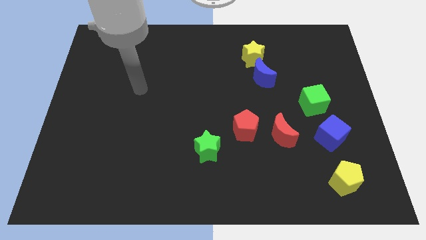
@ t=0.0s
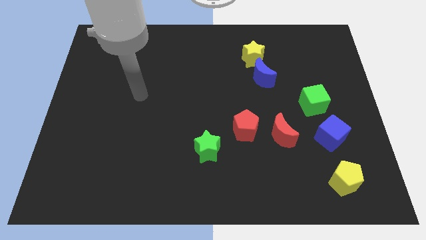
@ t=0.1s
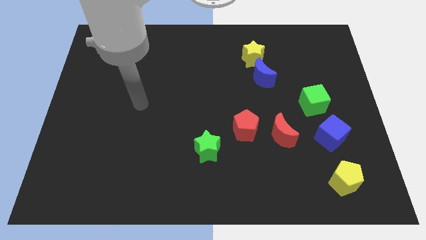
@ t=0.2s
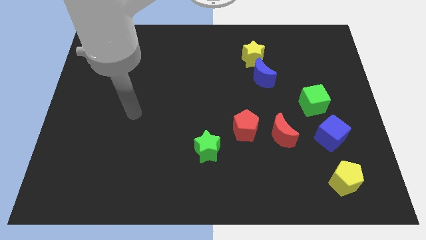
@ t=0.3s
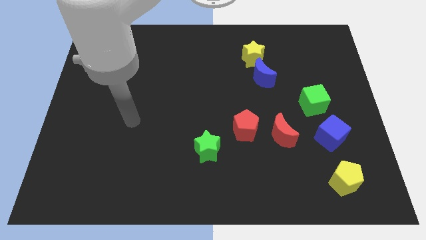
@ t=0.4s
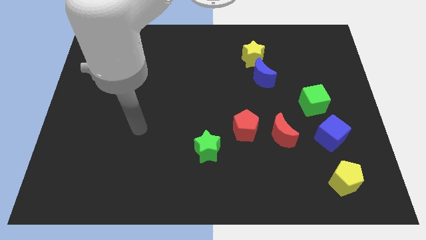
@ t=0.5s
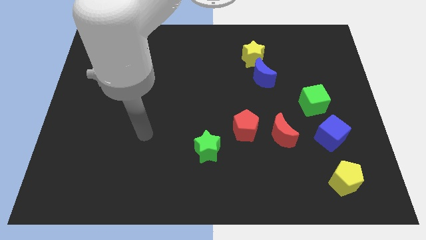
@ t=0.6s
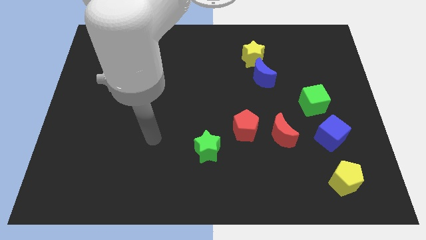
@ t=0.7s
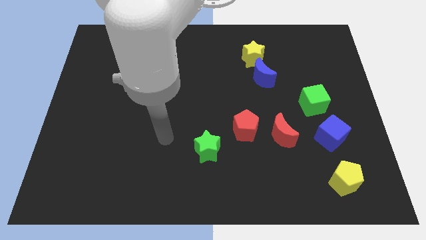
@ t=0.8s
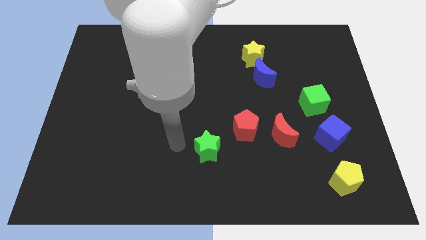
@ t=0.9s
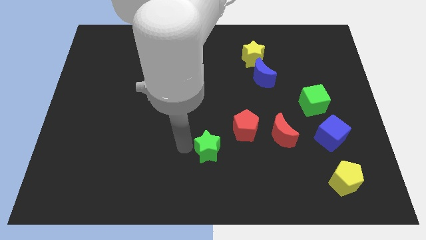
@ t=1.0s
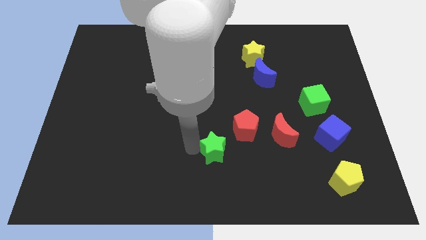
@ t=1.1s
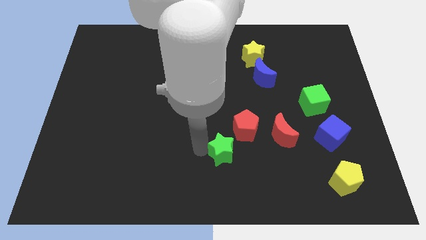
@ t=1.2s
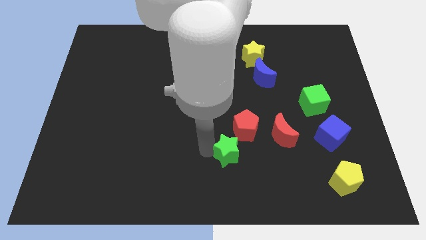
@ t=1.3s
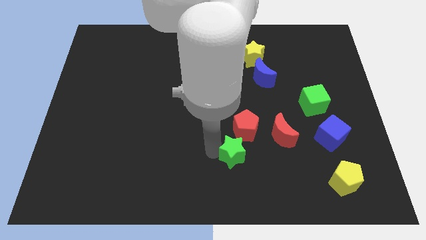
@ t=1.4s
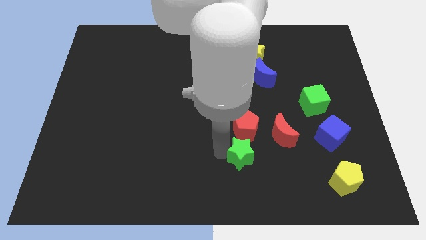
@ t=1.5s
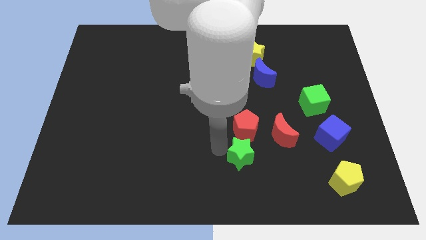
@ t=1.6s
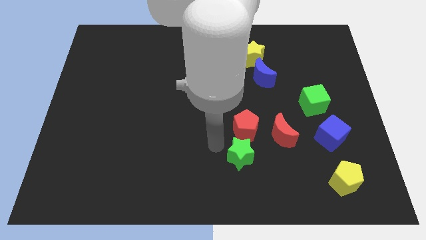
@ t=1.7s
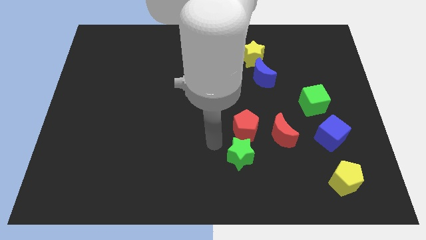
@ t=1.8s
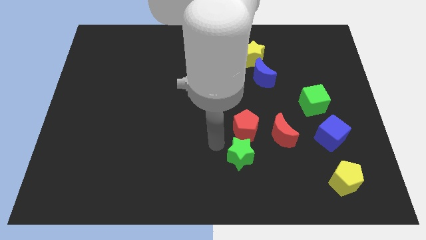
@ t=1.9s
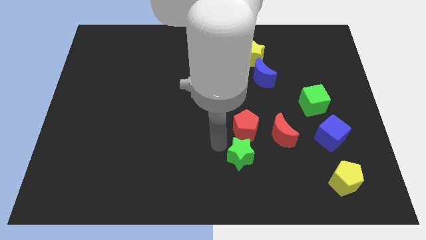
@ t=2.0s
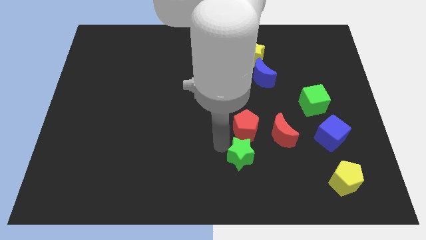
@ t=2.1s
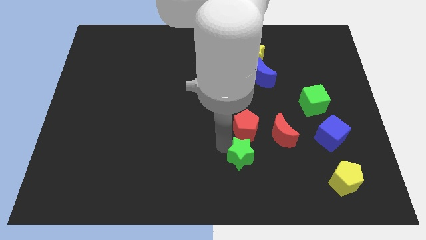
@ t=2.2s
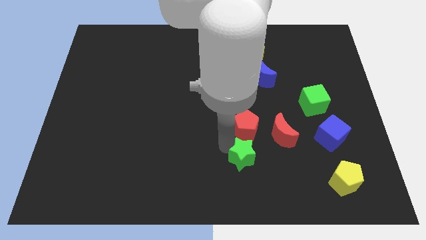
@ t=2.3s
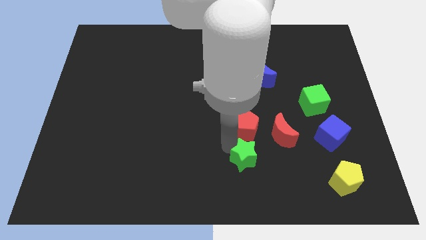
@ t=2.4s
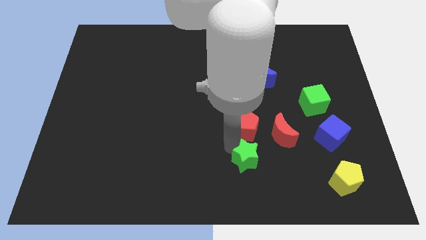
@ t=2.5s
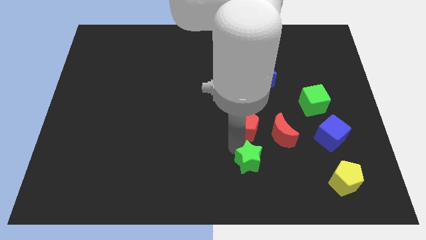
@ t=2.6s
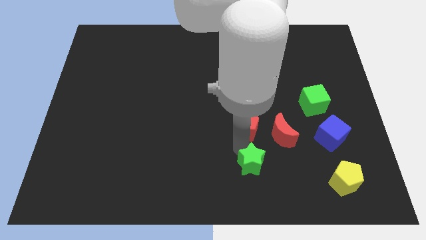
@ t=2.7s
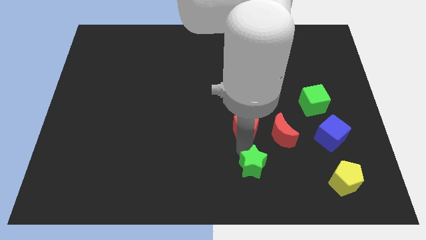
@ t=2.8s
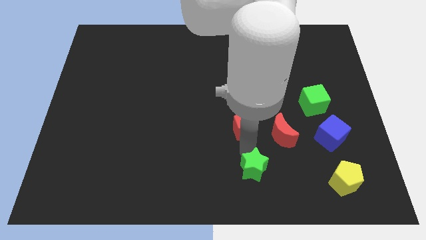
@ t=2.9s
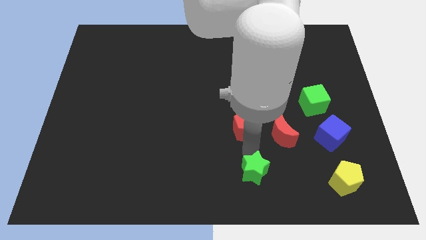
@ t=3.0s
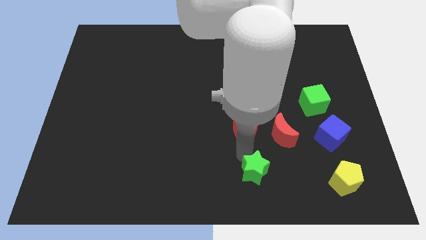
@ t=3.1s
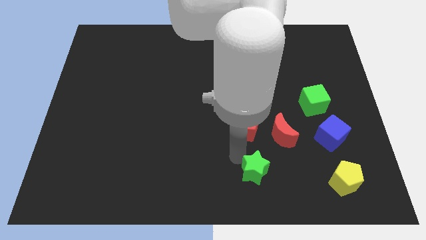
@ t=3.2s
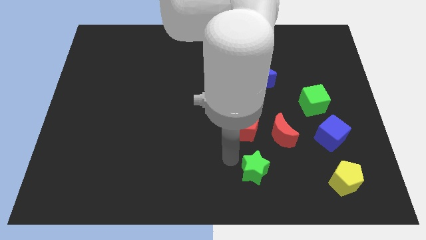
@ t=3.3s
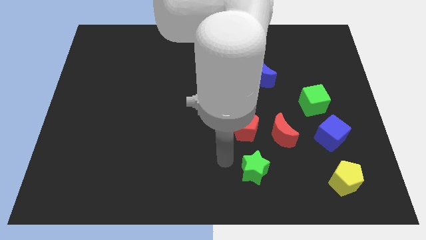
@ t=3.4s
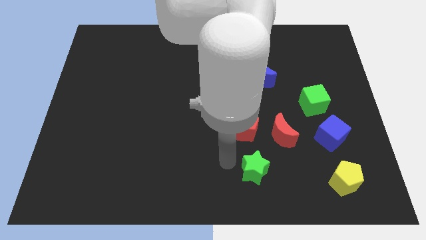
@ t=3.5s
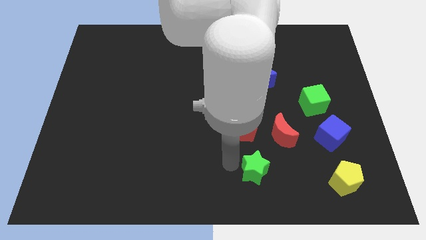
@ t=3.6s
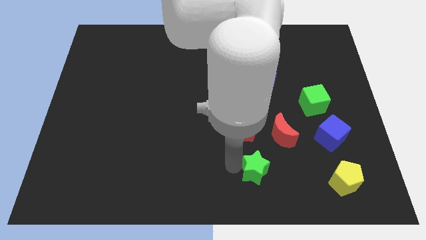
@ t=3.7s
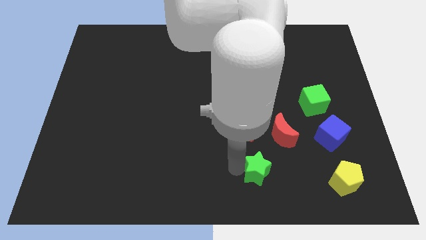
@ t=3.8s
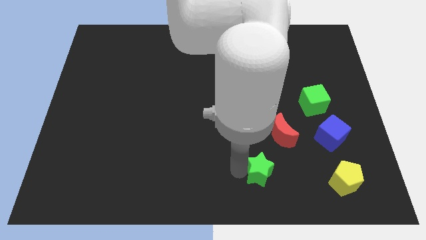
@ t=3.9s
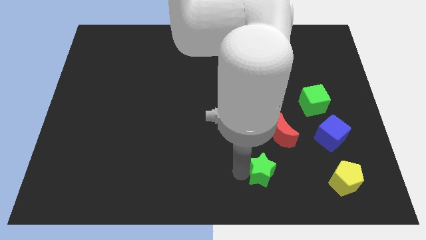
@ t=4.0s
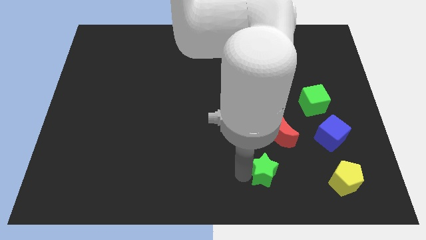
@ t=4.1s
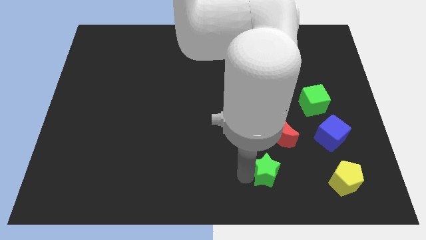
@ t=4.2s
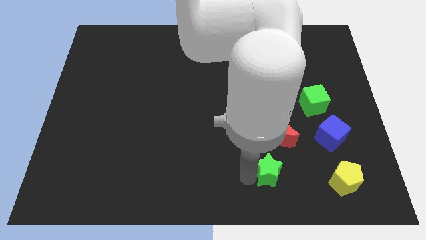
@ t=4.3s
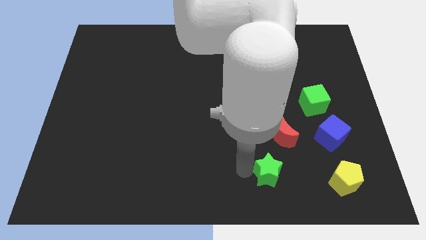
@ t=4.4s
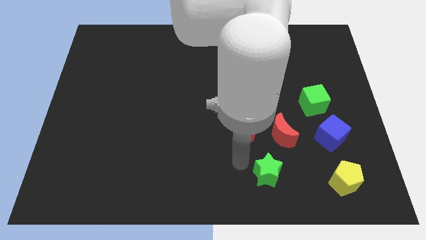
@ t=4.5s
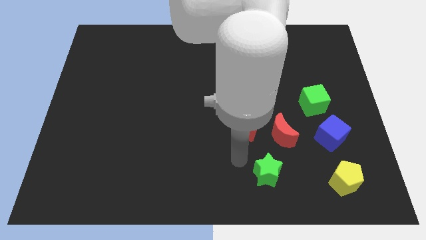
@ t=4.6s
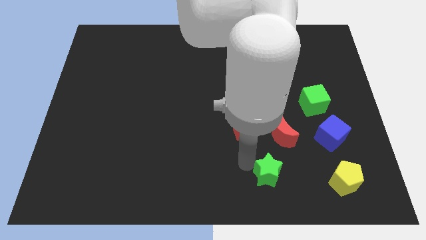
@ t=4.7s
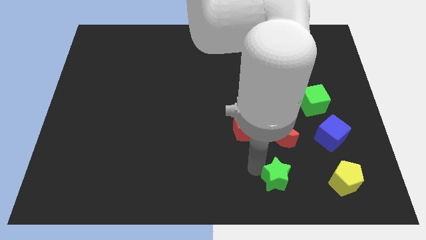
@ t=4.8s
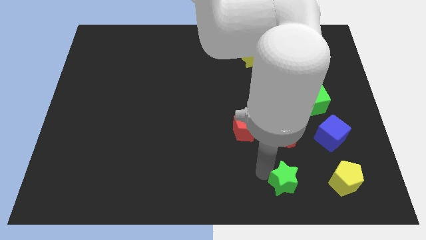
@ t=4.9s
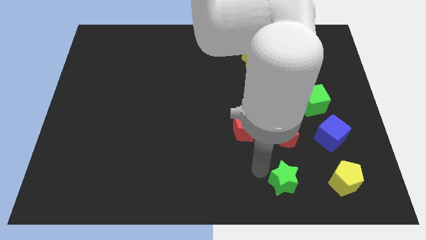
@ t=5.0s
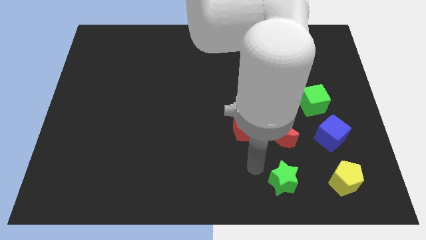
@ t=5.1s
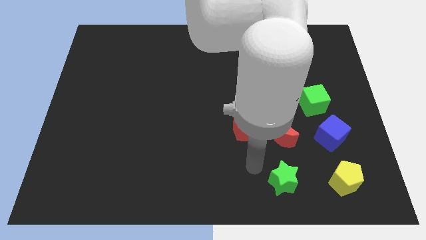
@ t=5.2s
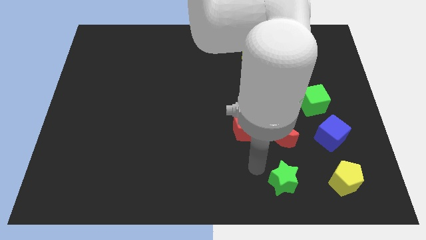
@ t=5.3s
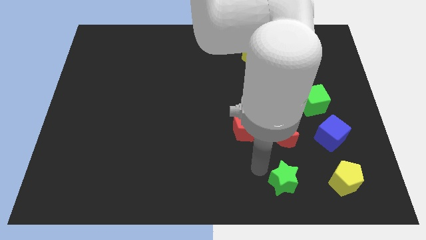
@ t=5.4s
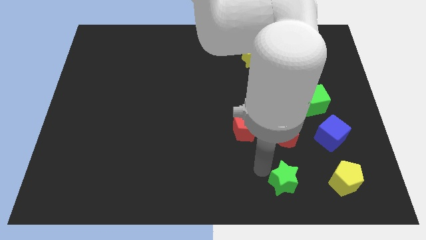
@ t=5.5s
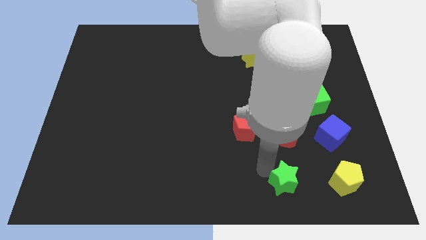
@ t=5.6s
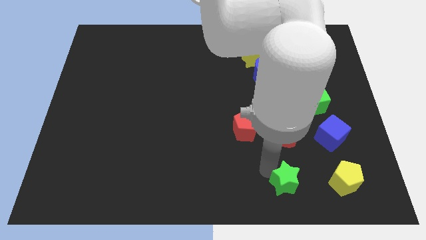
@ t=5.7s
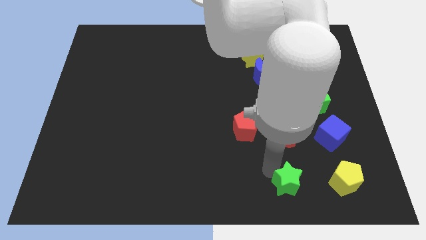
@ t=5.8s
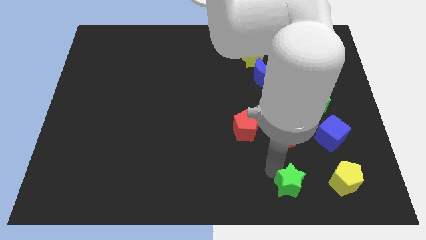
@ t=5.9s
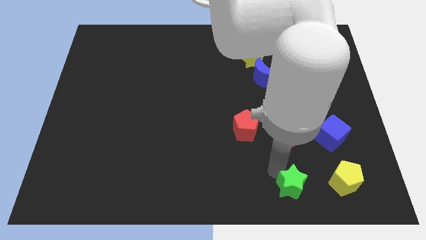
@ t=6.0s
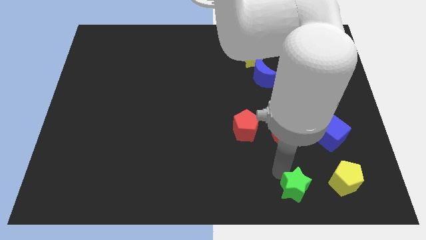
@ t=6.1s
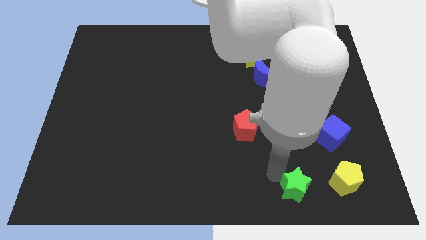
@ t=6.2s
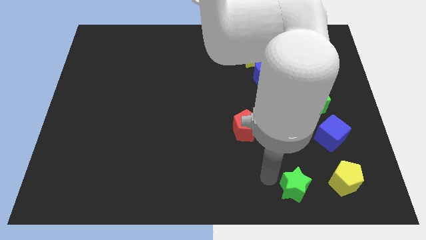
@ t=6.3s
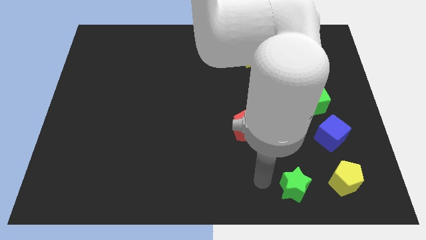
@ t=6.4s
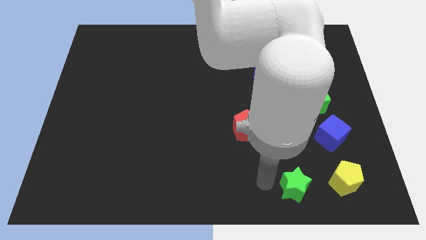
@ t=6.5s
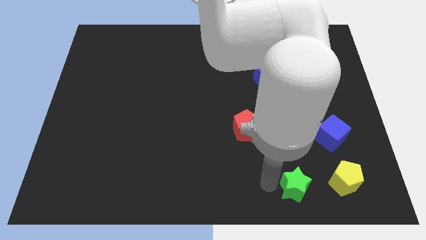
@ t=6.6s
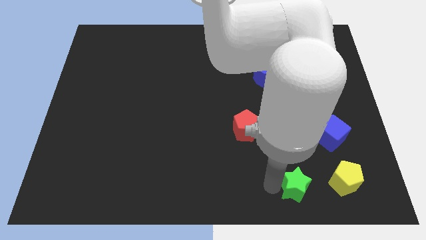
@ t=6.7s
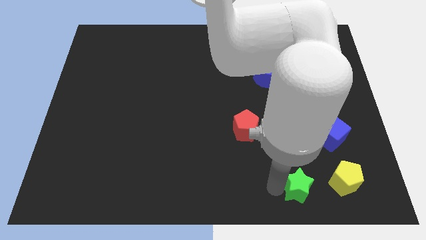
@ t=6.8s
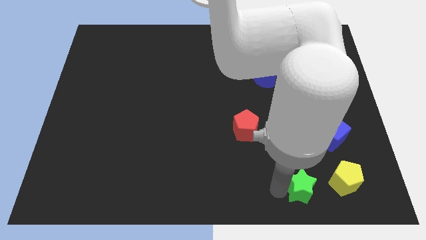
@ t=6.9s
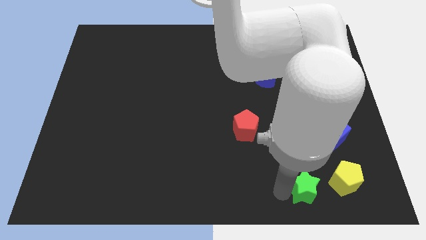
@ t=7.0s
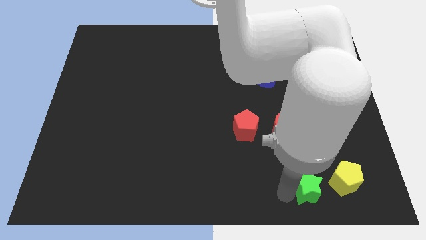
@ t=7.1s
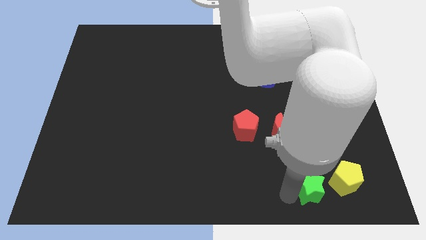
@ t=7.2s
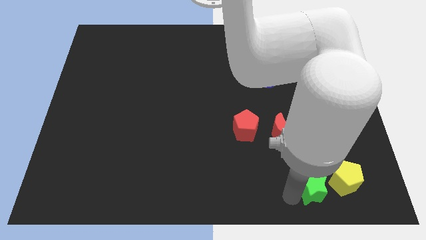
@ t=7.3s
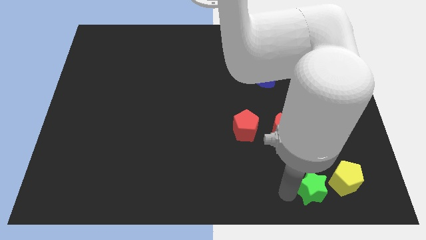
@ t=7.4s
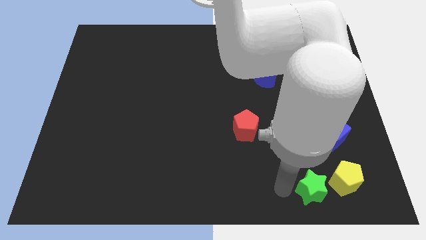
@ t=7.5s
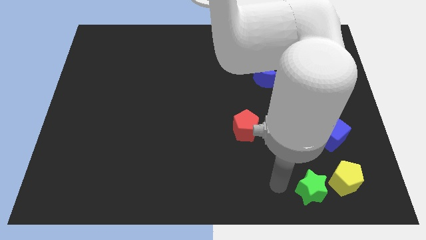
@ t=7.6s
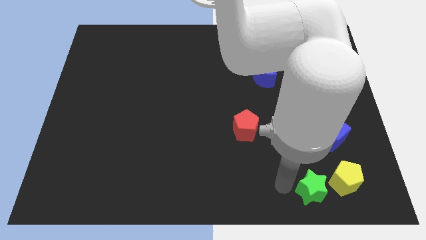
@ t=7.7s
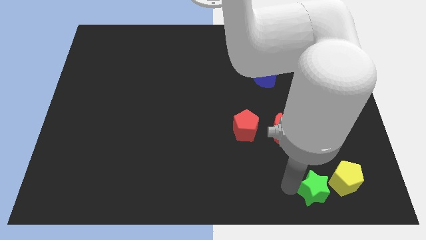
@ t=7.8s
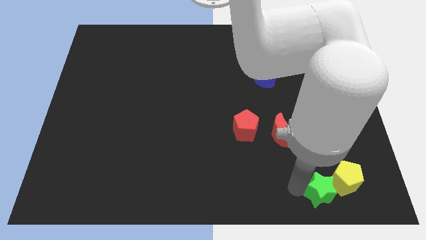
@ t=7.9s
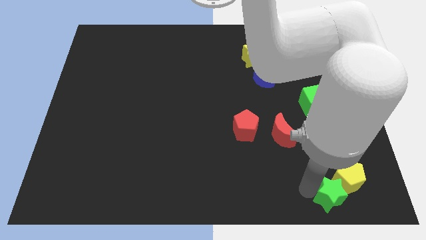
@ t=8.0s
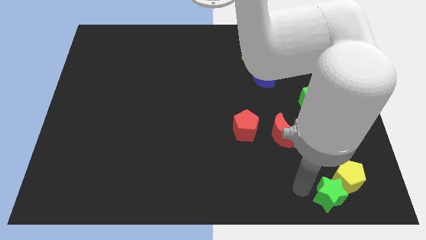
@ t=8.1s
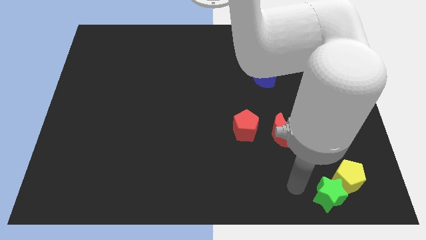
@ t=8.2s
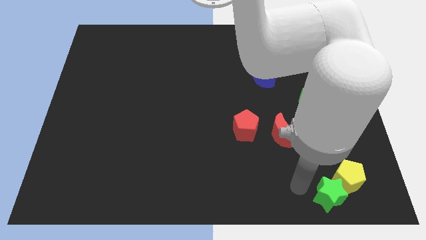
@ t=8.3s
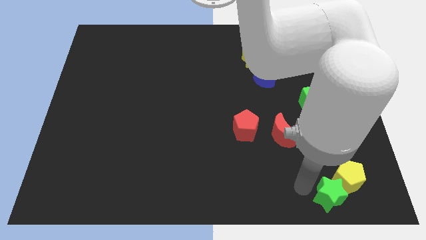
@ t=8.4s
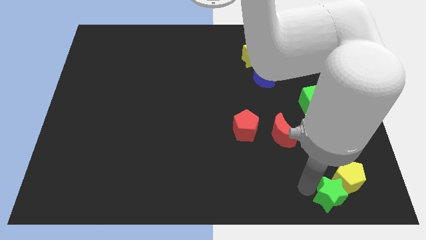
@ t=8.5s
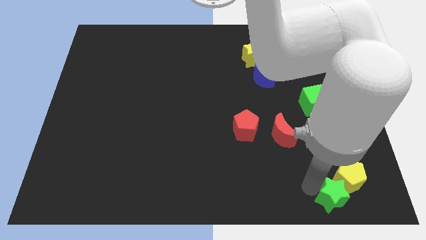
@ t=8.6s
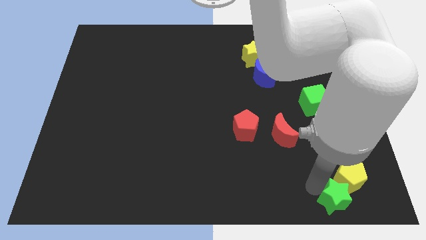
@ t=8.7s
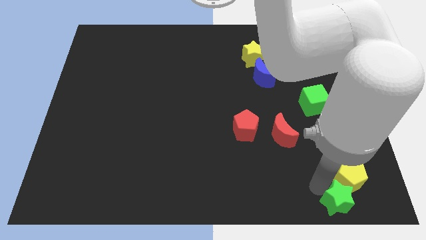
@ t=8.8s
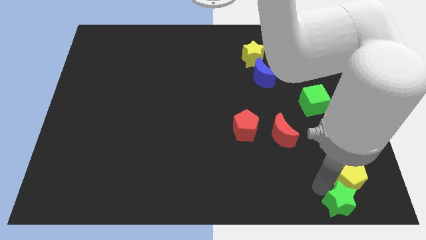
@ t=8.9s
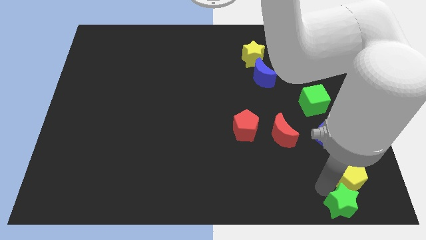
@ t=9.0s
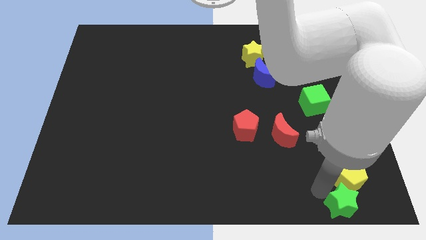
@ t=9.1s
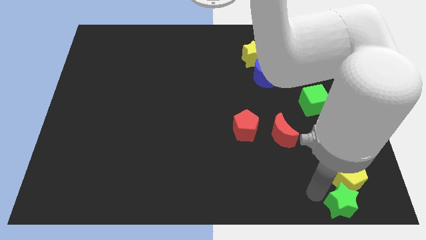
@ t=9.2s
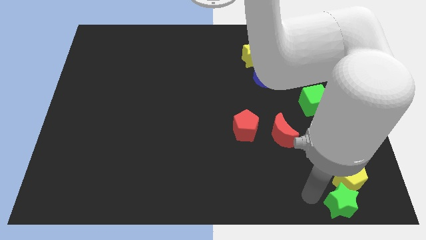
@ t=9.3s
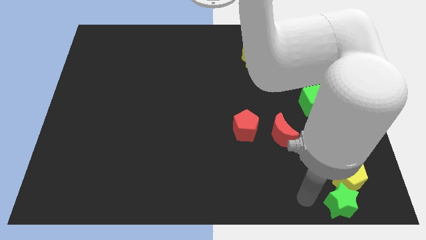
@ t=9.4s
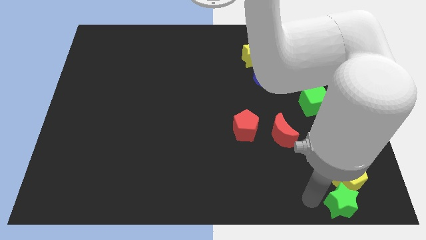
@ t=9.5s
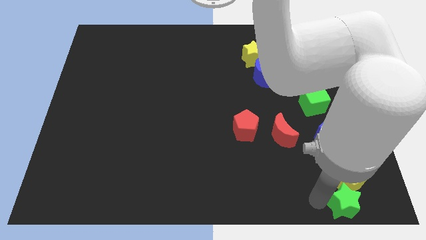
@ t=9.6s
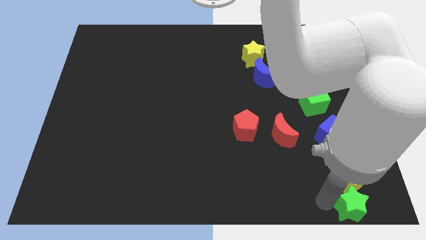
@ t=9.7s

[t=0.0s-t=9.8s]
slide the green star to the bottom right corner
